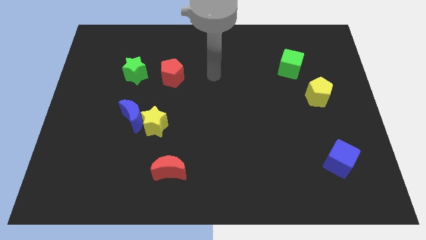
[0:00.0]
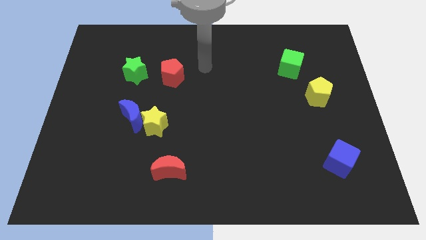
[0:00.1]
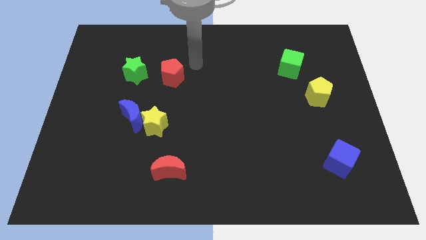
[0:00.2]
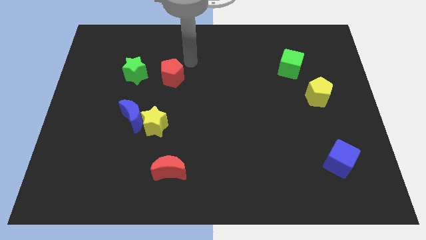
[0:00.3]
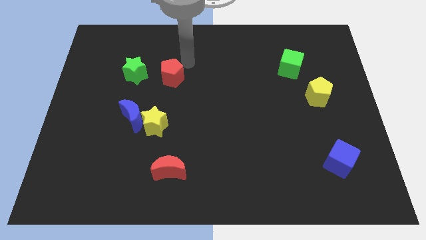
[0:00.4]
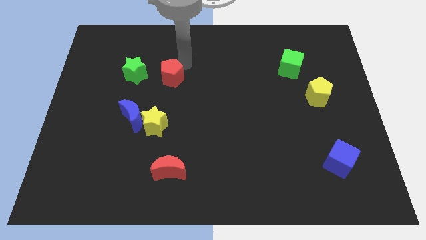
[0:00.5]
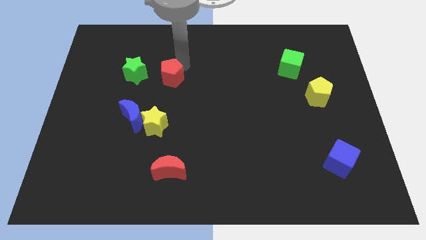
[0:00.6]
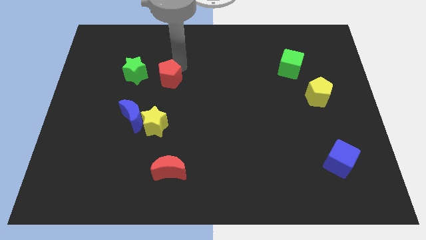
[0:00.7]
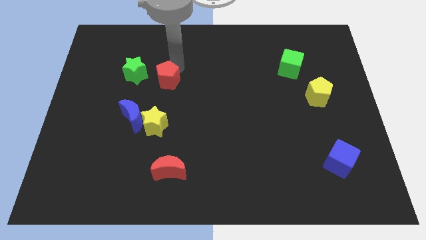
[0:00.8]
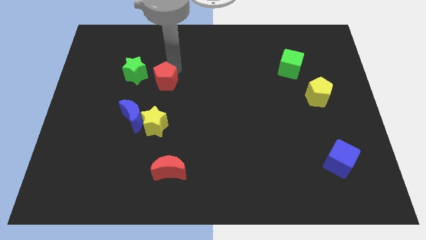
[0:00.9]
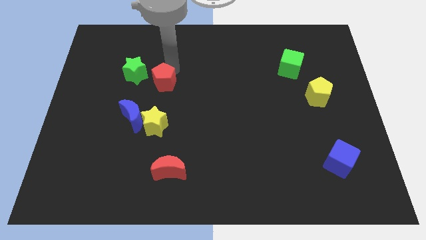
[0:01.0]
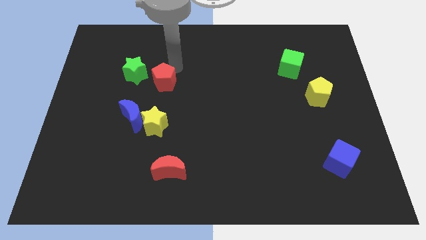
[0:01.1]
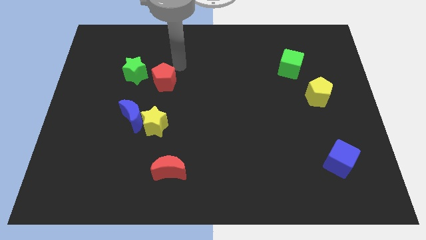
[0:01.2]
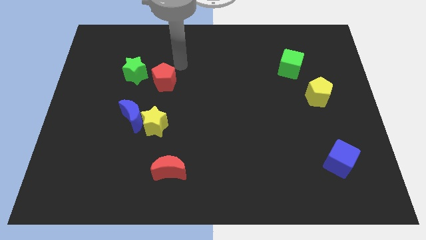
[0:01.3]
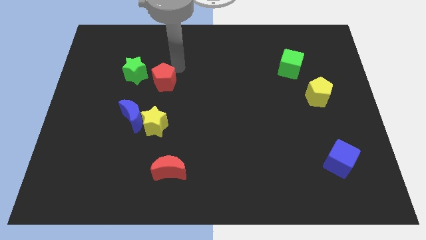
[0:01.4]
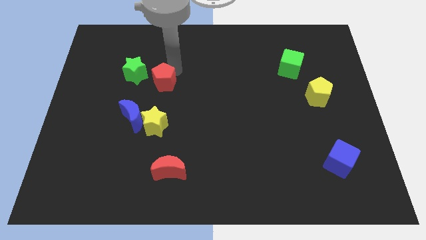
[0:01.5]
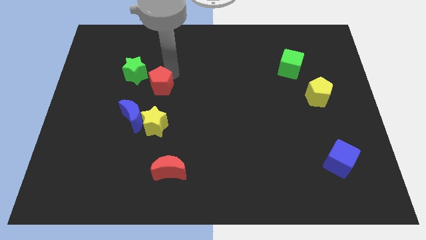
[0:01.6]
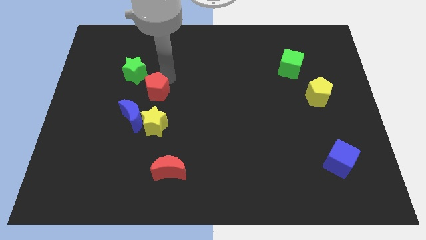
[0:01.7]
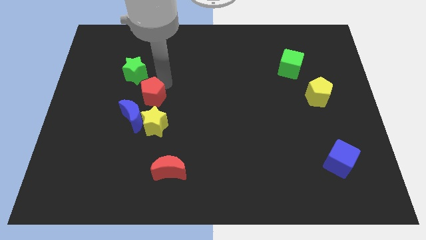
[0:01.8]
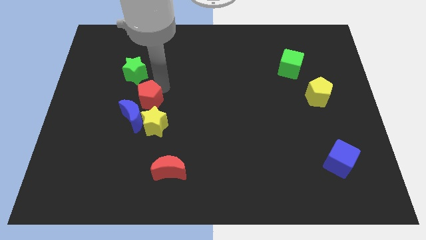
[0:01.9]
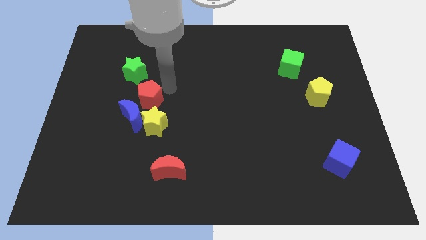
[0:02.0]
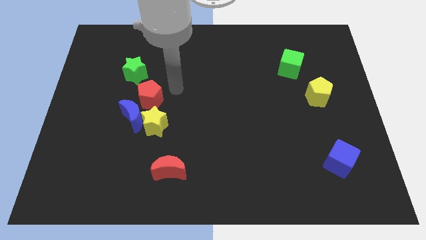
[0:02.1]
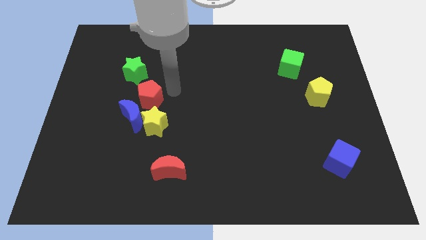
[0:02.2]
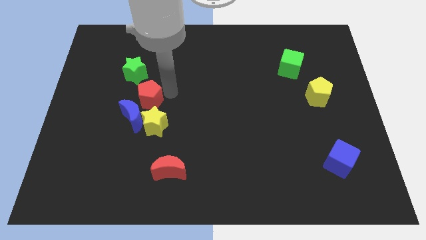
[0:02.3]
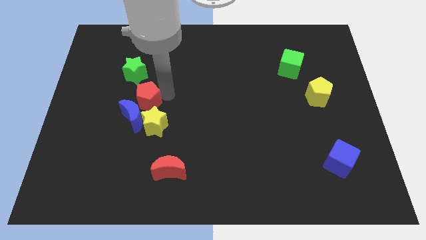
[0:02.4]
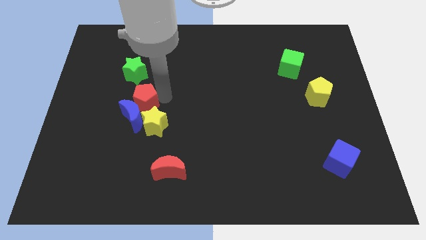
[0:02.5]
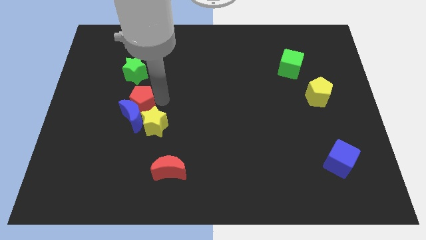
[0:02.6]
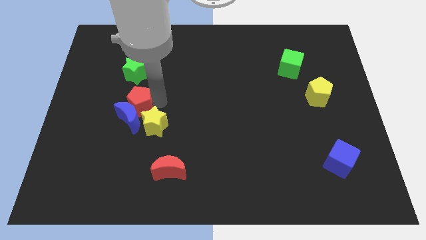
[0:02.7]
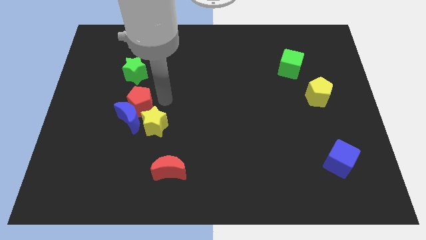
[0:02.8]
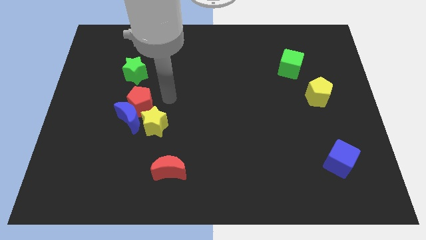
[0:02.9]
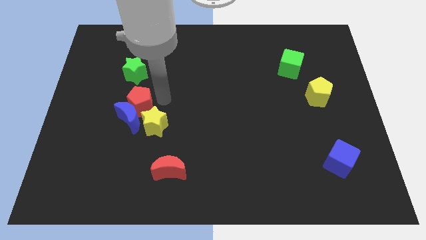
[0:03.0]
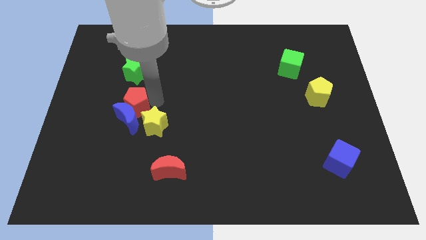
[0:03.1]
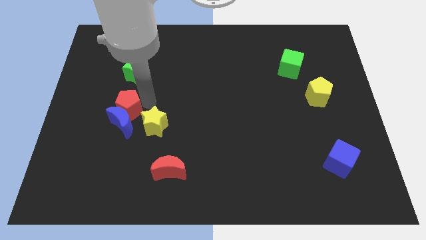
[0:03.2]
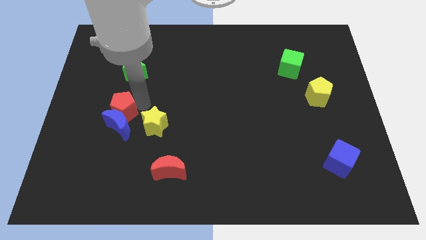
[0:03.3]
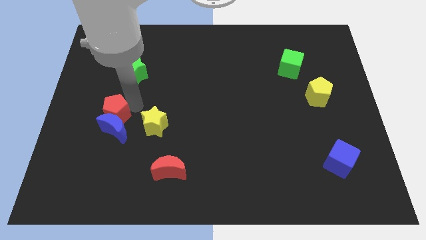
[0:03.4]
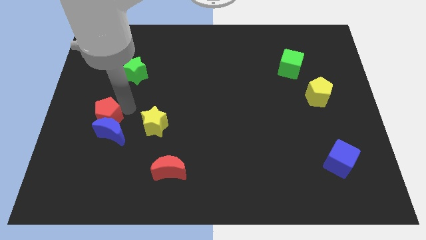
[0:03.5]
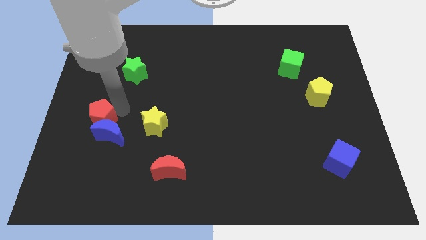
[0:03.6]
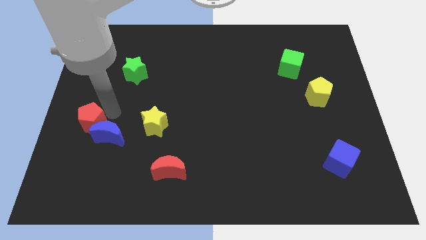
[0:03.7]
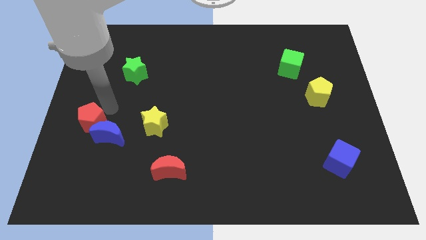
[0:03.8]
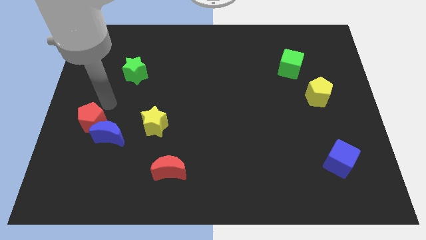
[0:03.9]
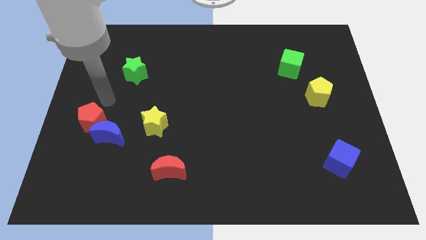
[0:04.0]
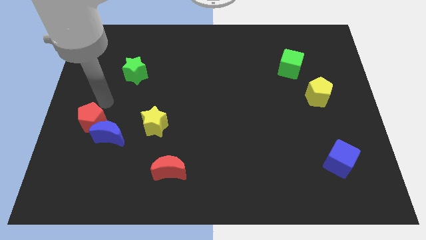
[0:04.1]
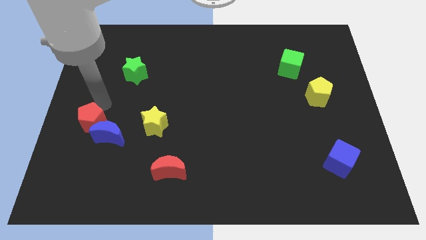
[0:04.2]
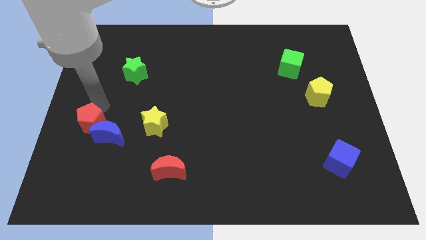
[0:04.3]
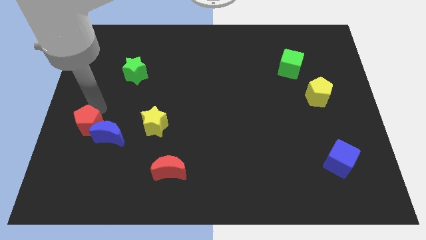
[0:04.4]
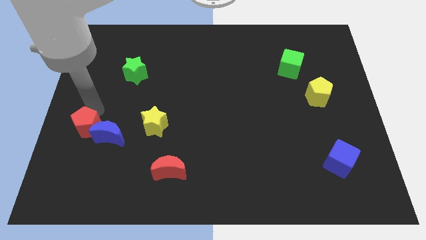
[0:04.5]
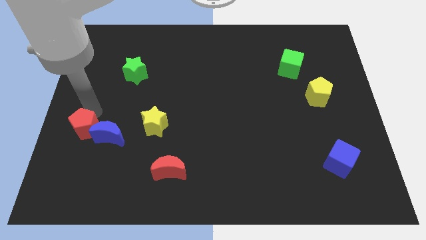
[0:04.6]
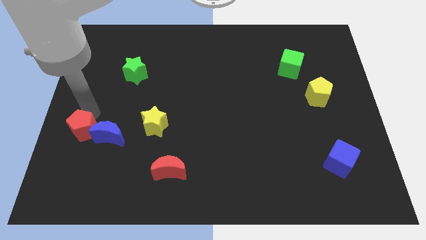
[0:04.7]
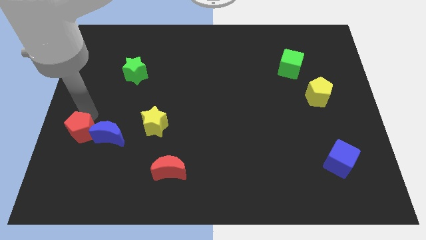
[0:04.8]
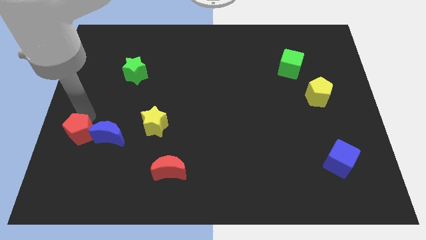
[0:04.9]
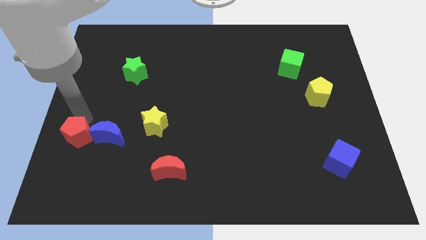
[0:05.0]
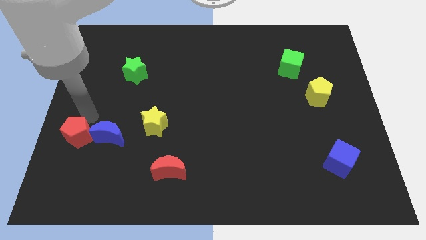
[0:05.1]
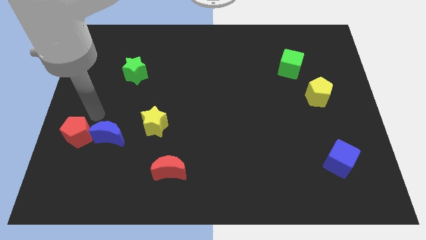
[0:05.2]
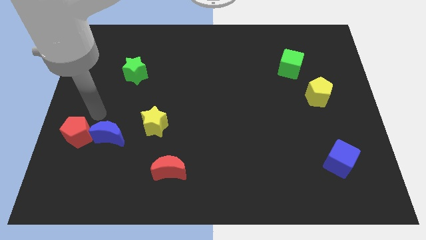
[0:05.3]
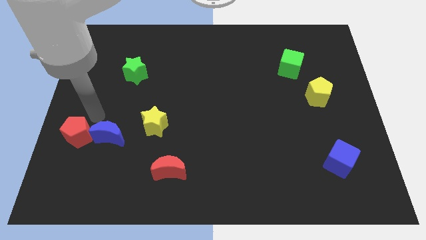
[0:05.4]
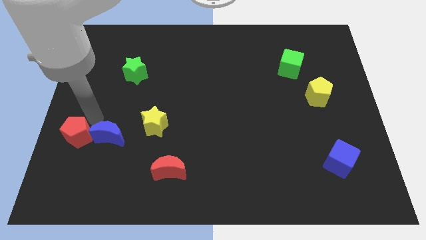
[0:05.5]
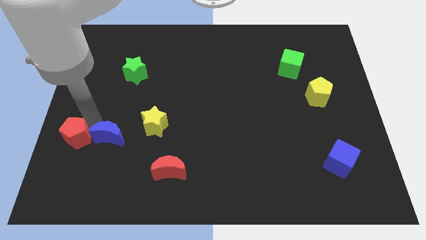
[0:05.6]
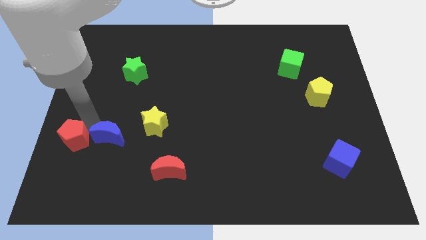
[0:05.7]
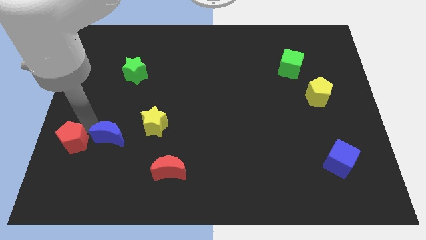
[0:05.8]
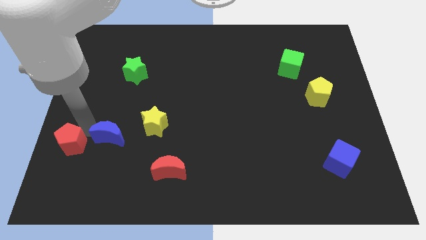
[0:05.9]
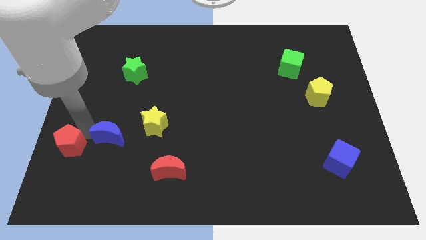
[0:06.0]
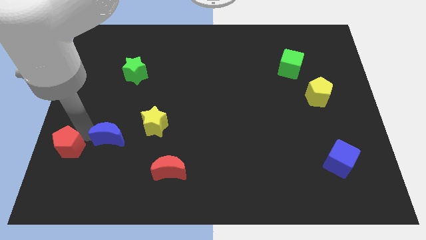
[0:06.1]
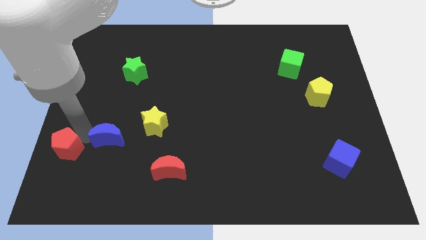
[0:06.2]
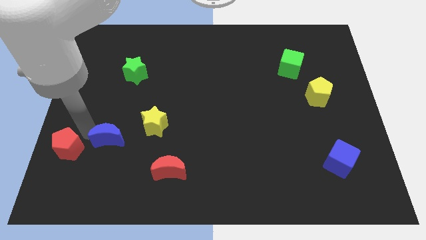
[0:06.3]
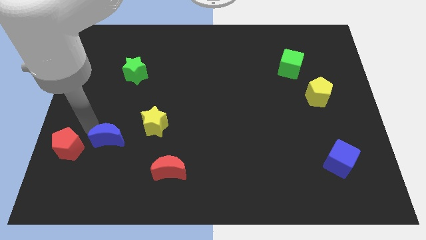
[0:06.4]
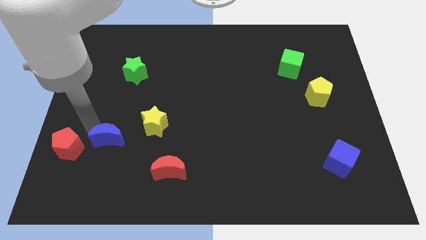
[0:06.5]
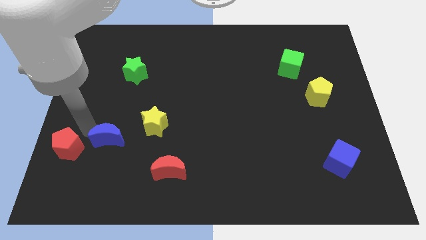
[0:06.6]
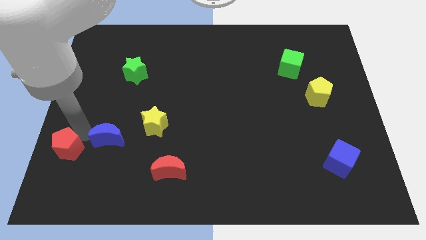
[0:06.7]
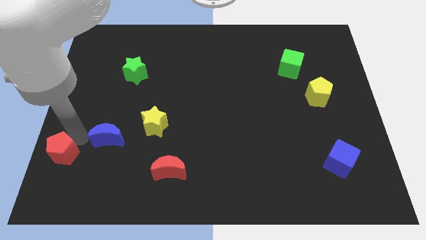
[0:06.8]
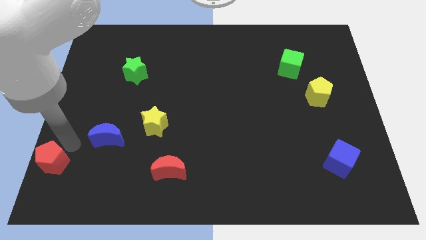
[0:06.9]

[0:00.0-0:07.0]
push the red pentagon to the bottom left corner
